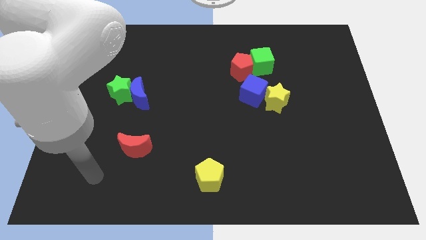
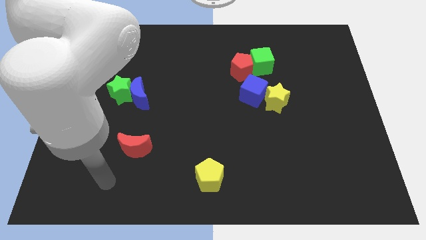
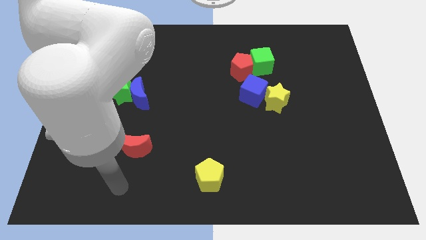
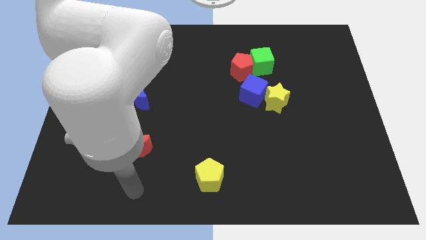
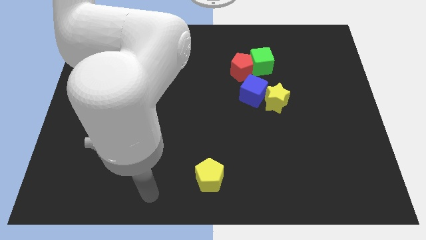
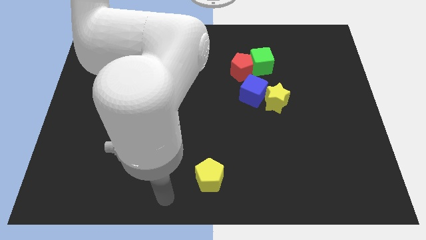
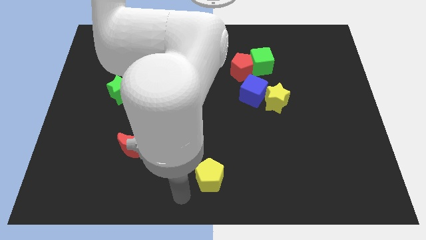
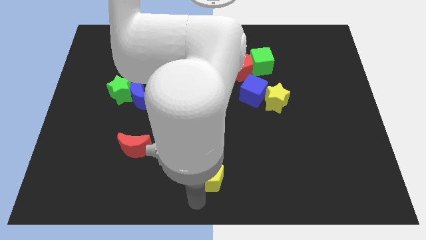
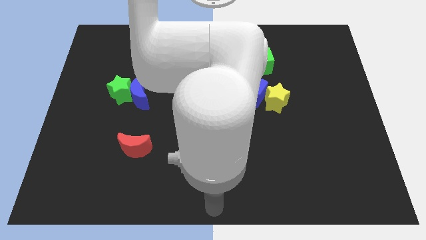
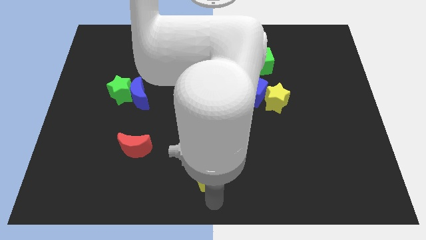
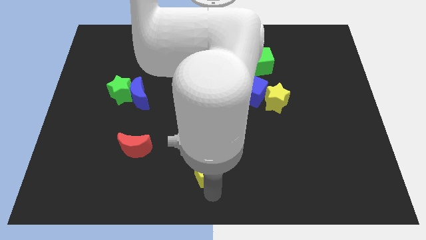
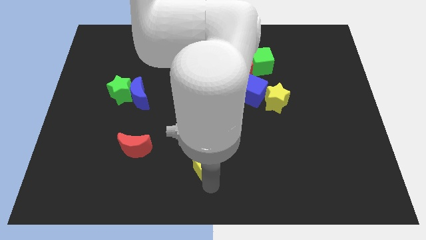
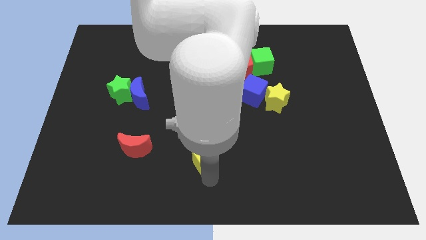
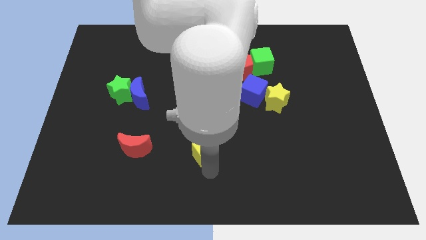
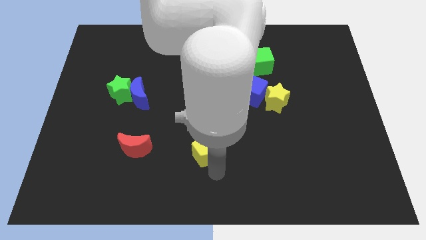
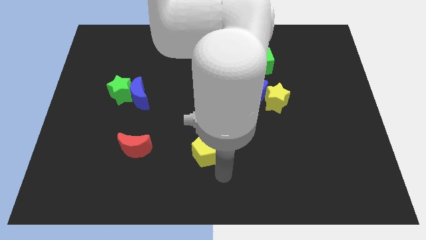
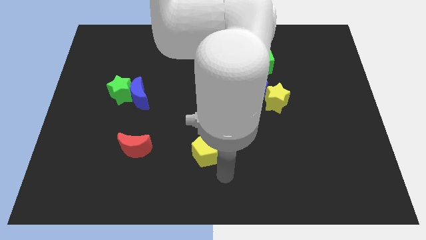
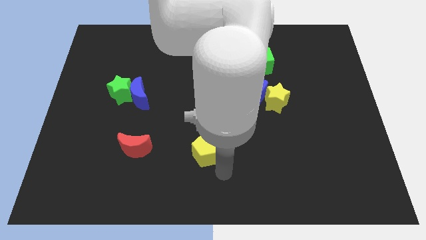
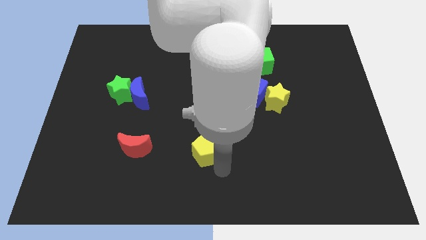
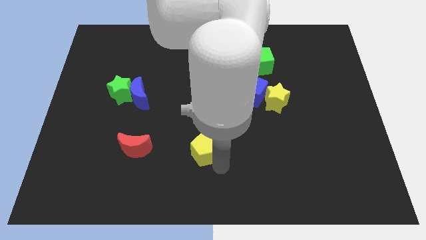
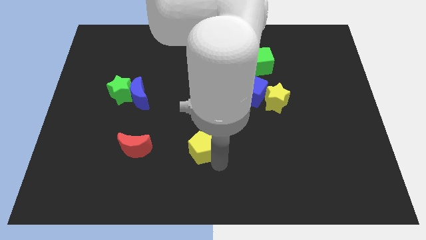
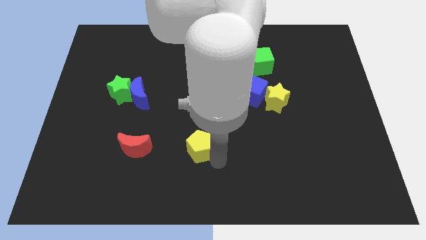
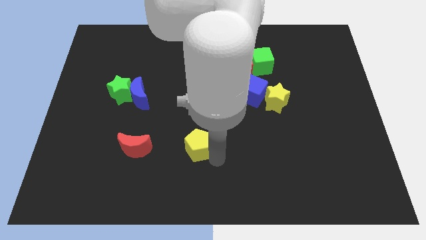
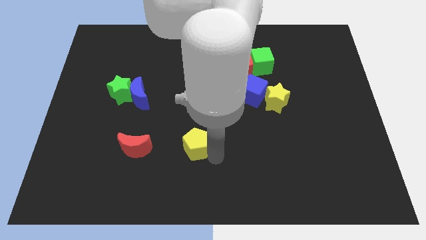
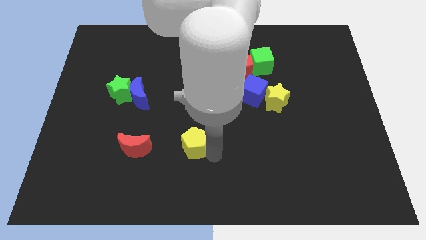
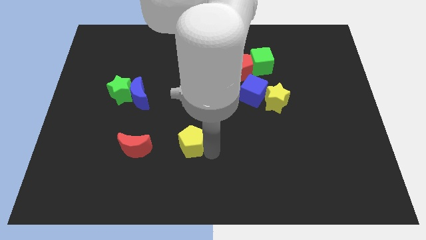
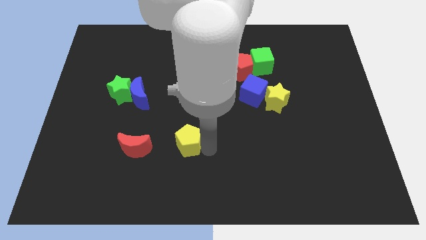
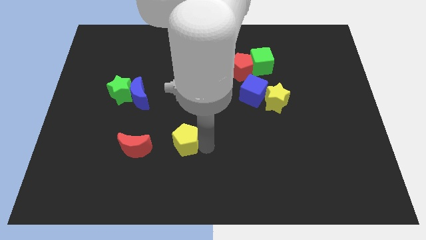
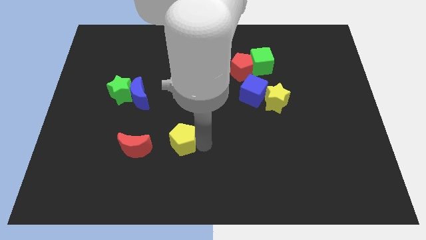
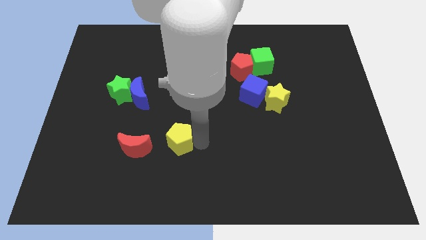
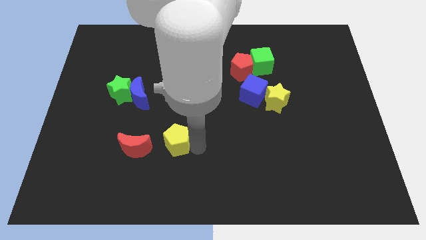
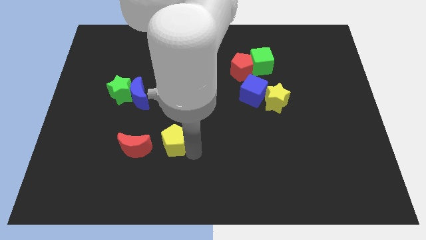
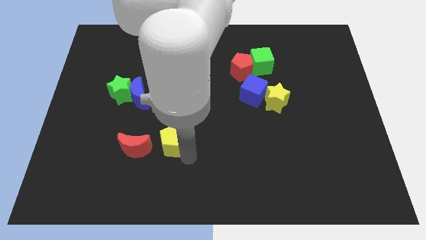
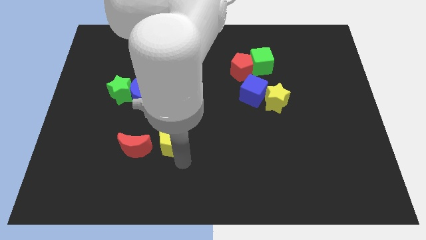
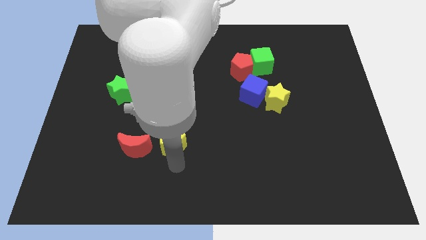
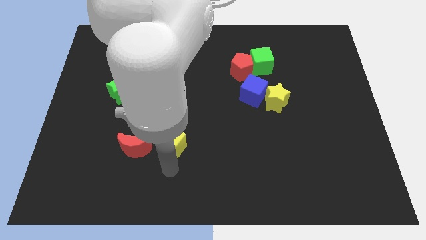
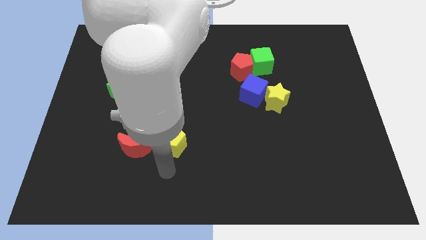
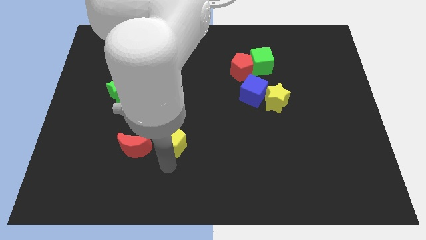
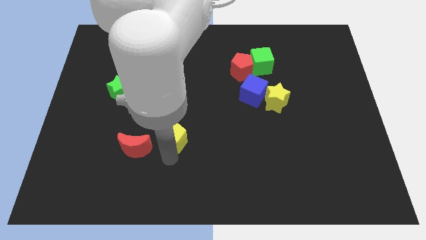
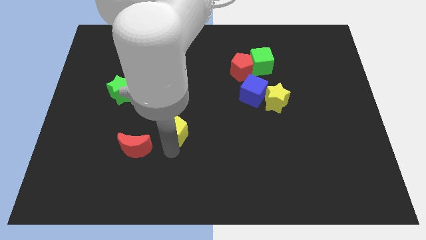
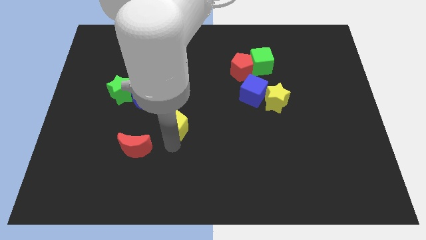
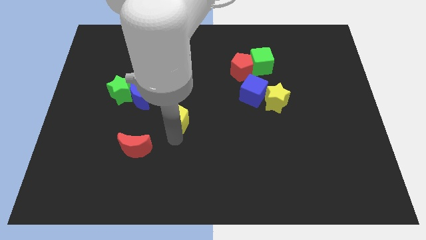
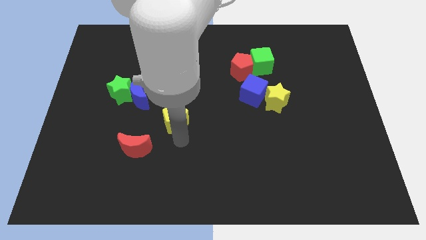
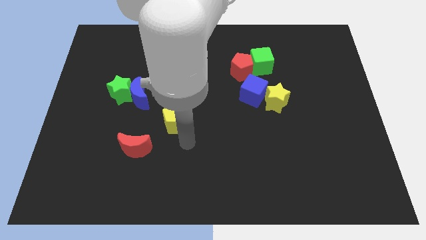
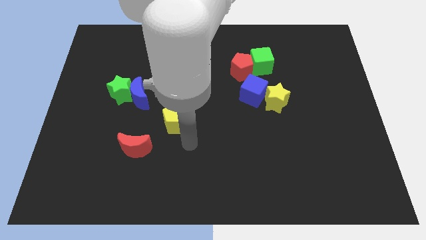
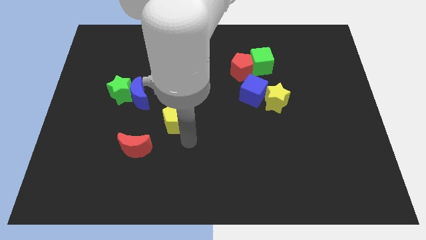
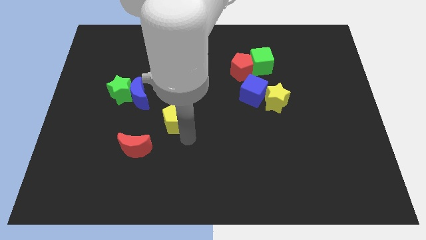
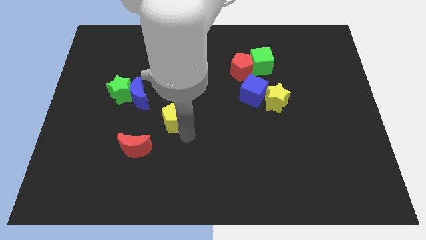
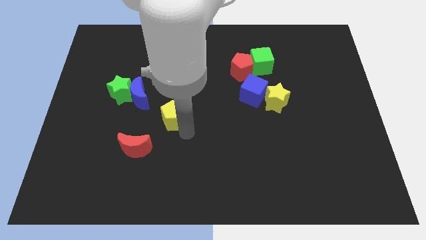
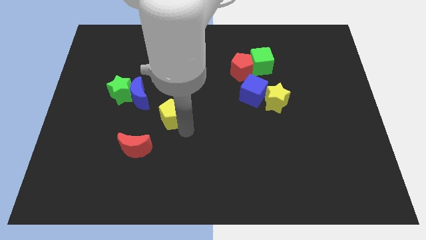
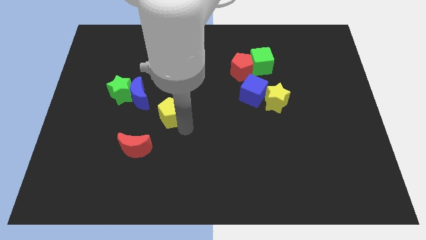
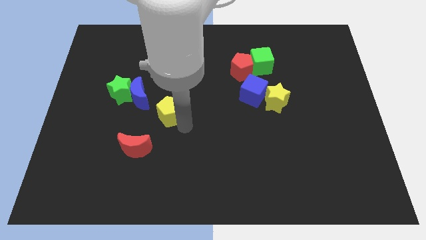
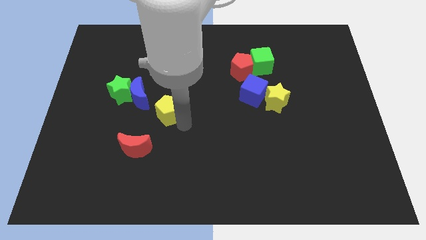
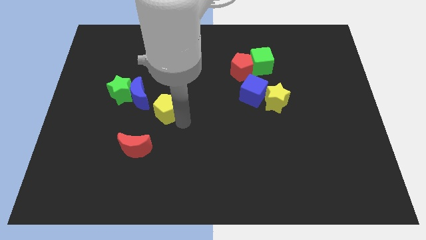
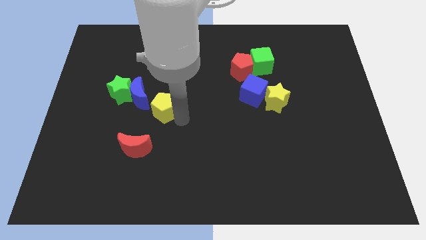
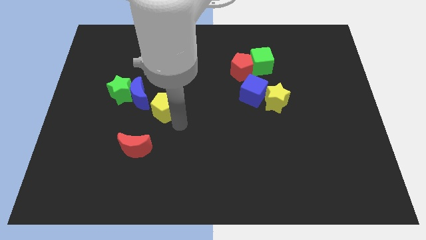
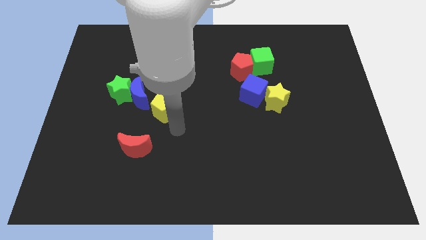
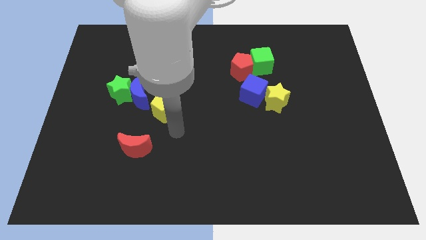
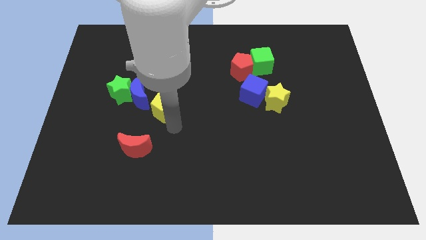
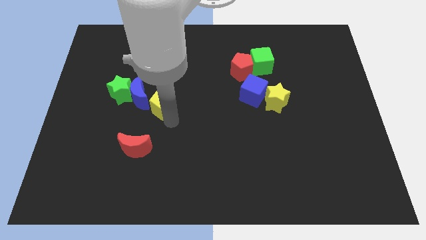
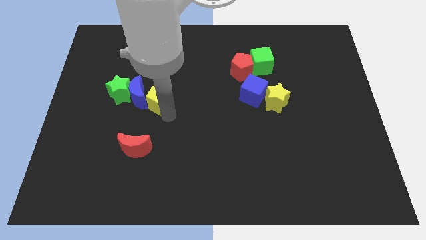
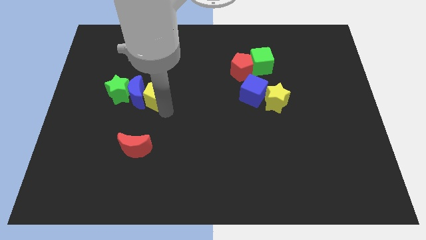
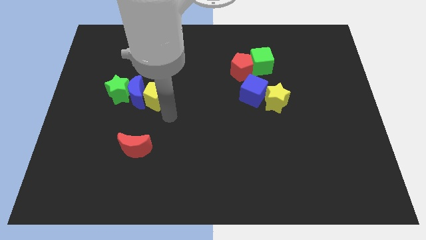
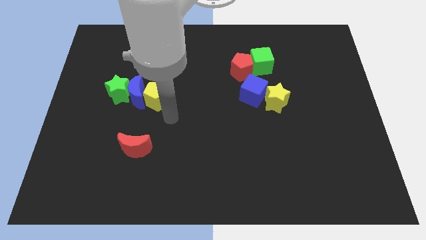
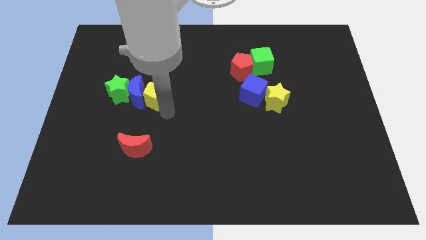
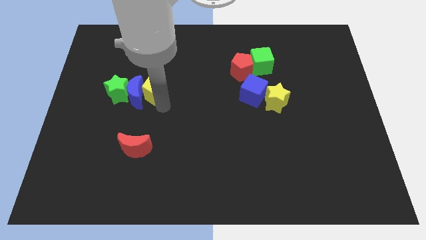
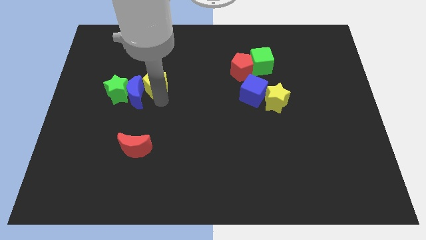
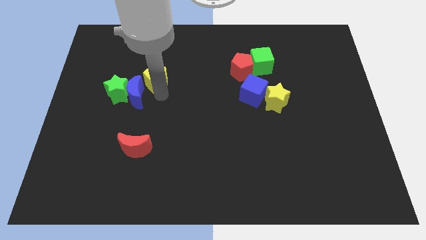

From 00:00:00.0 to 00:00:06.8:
move the yellow pentagon to the top right of the green star

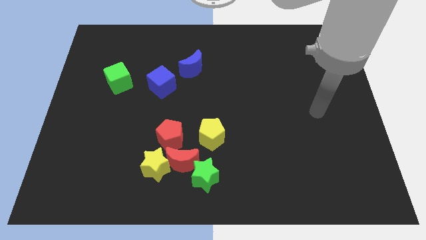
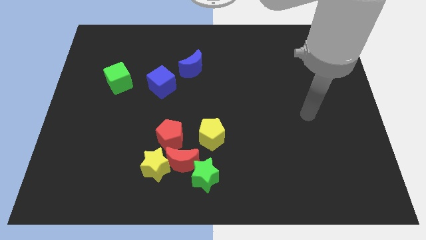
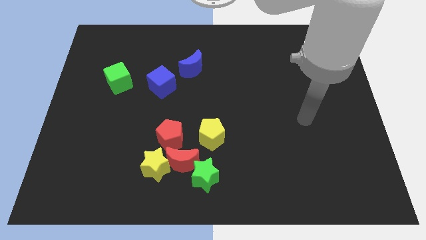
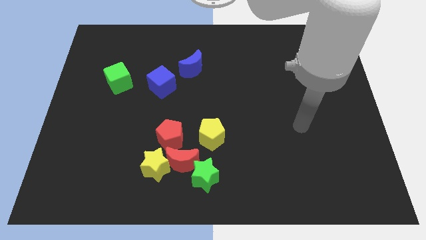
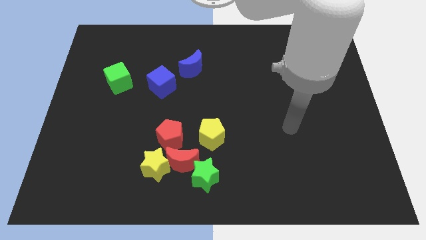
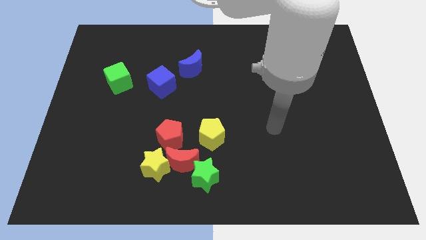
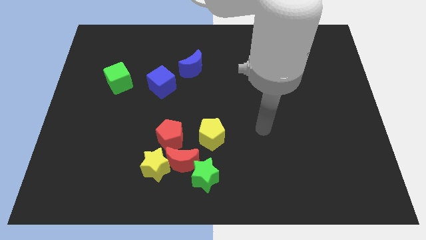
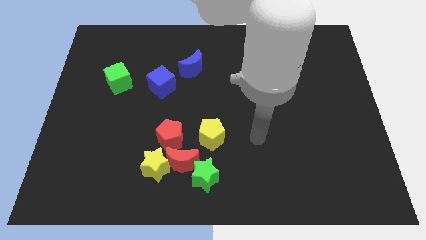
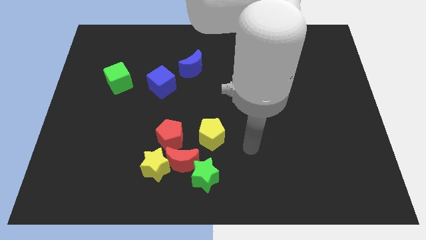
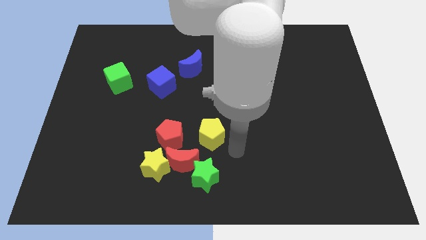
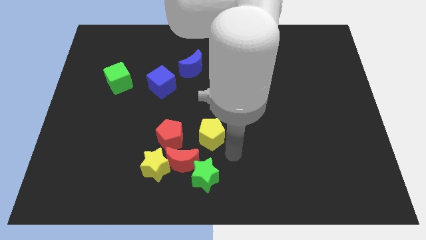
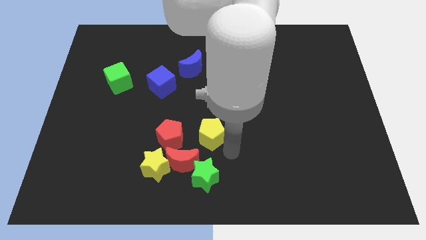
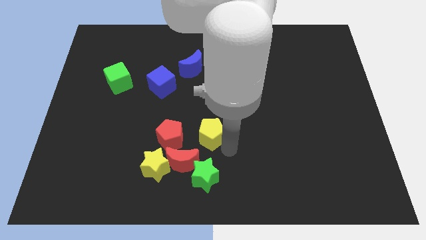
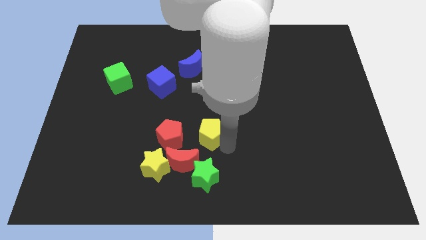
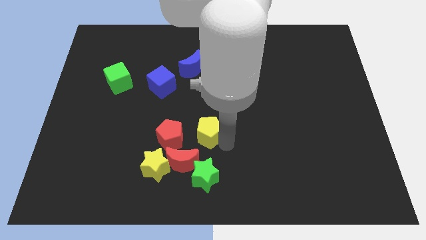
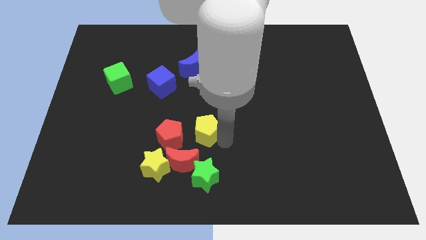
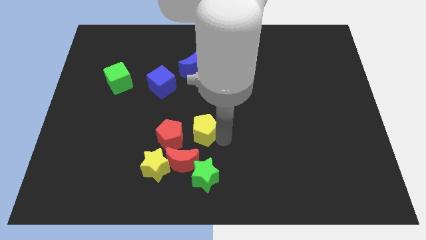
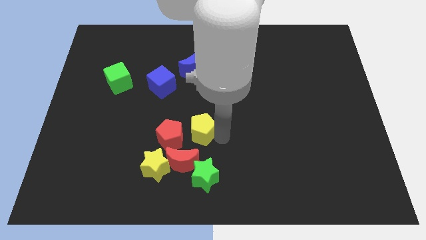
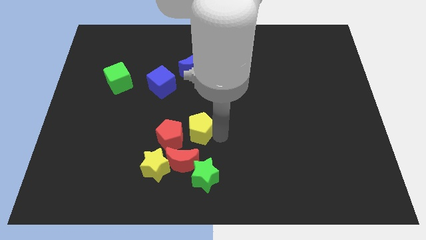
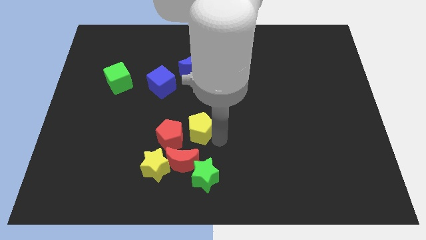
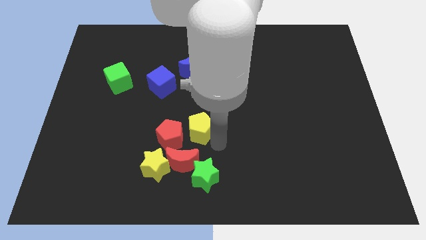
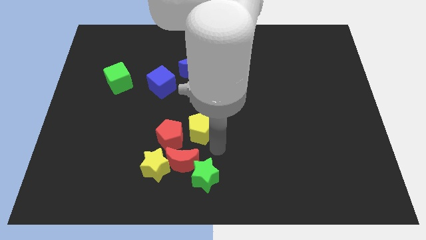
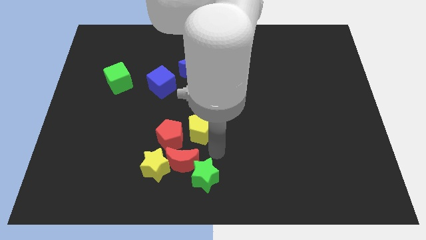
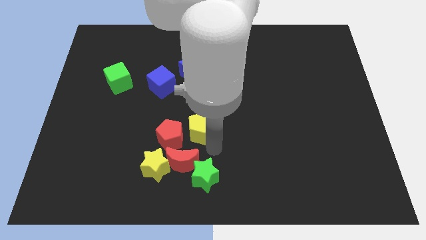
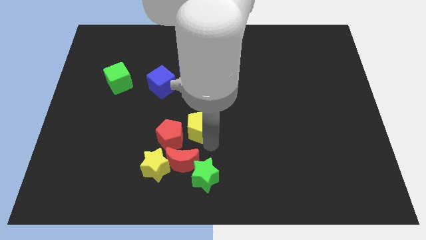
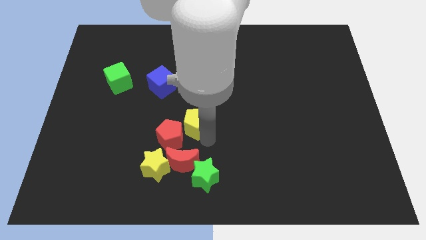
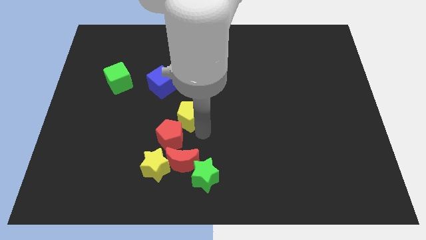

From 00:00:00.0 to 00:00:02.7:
slide the yellow pentagon to the top side of the red pentagon
